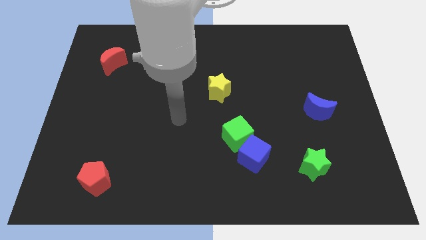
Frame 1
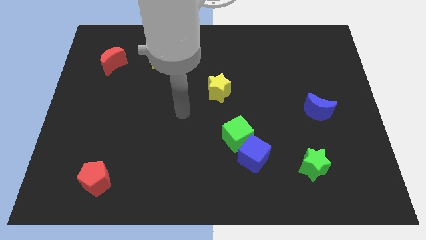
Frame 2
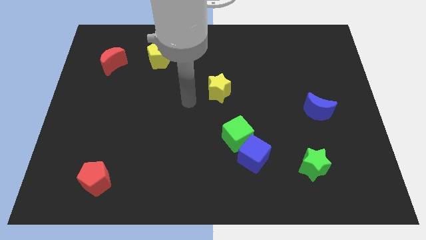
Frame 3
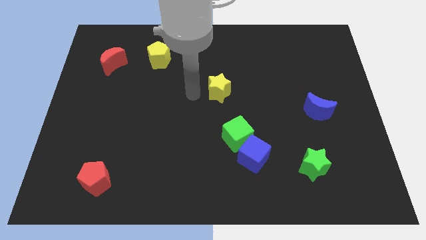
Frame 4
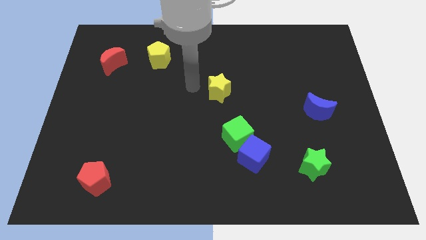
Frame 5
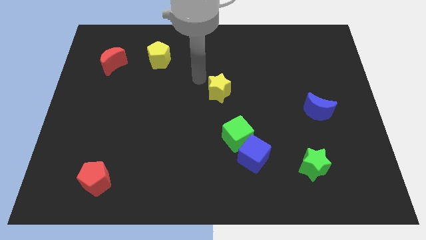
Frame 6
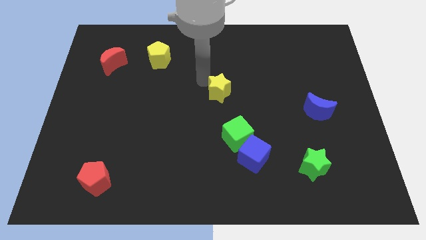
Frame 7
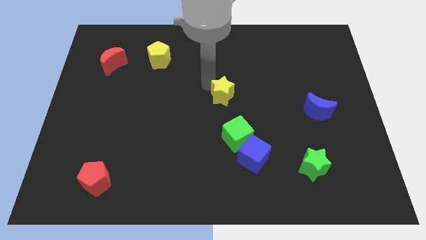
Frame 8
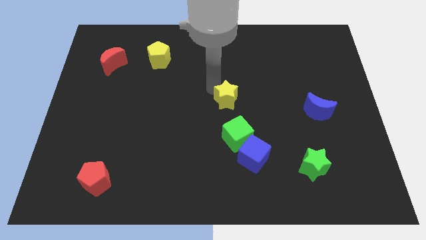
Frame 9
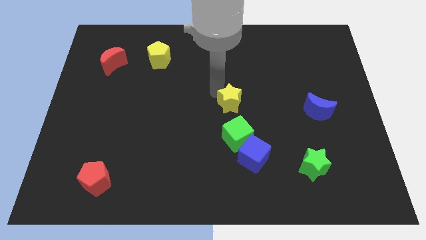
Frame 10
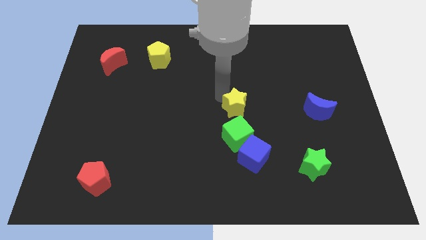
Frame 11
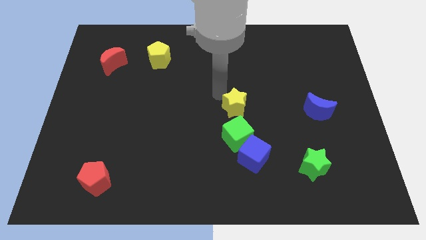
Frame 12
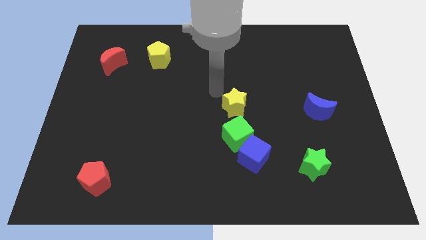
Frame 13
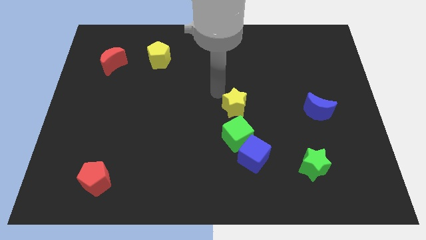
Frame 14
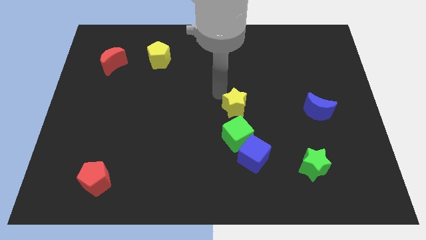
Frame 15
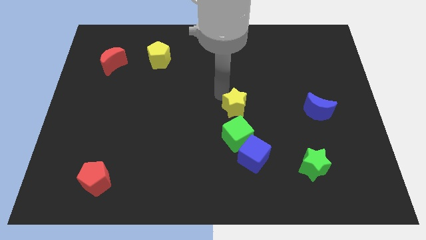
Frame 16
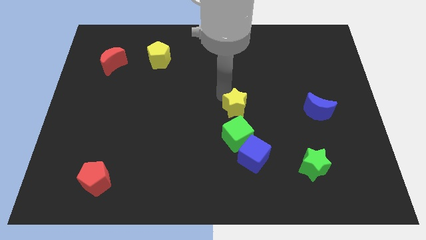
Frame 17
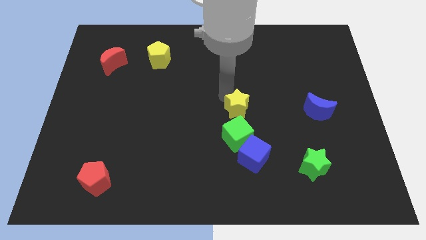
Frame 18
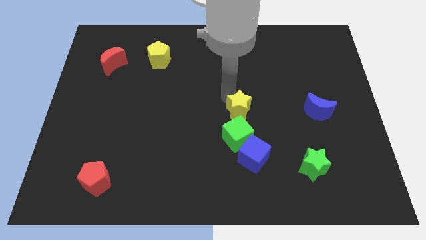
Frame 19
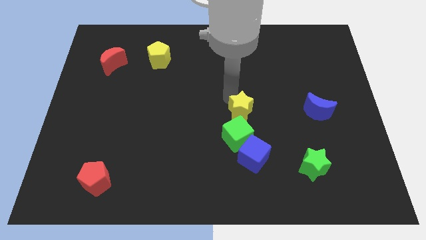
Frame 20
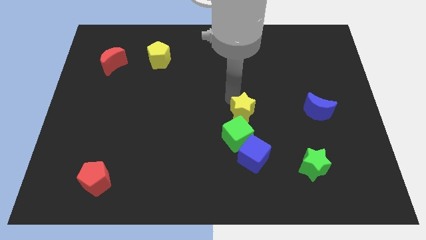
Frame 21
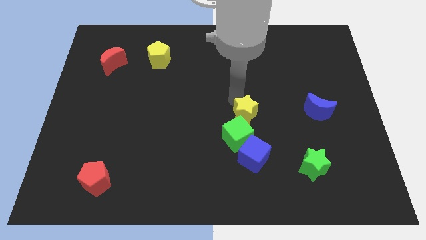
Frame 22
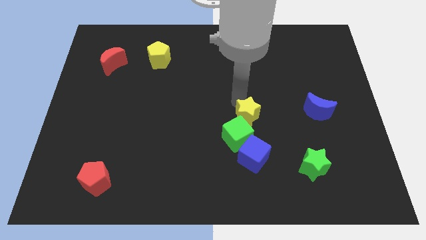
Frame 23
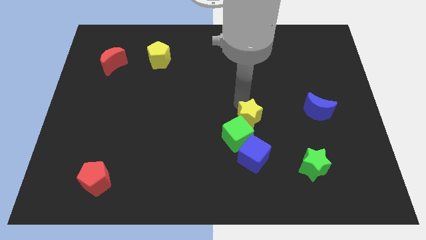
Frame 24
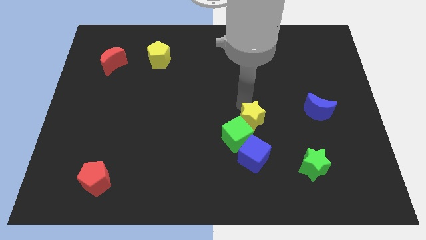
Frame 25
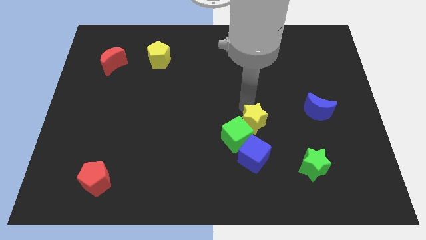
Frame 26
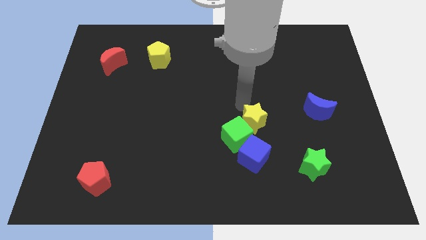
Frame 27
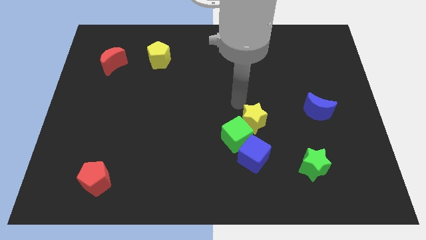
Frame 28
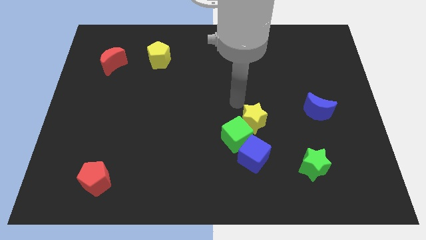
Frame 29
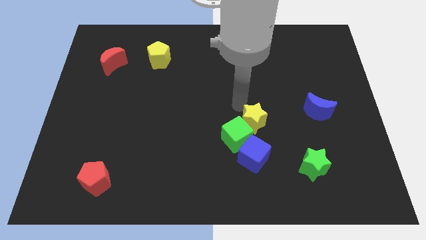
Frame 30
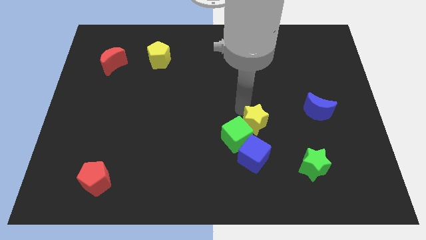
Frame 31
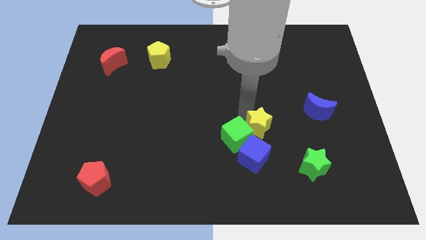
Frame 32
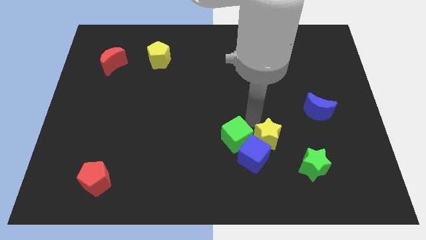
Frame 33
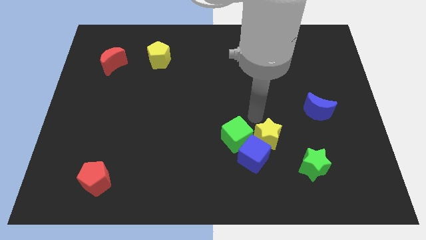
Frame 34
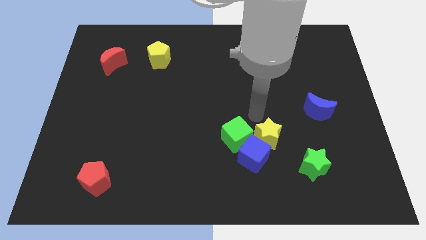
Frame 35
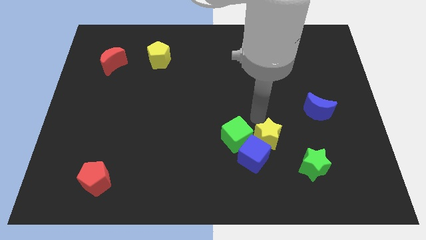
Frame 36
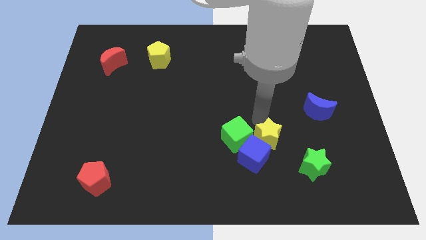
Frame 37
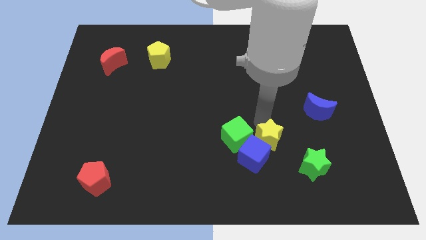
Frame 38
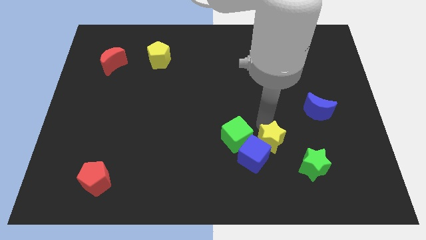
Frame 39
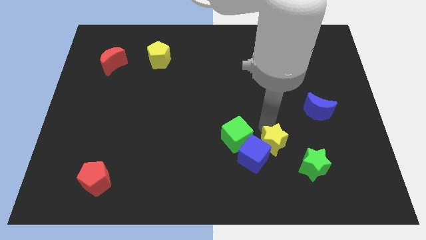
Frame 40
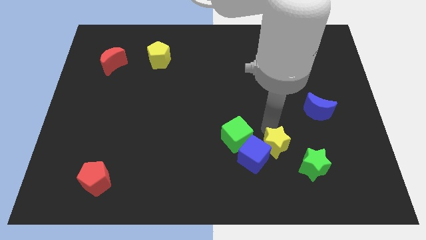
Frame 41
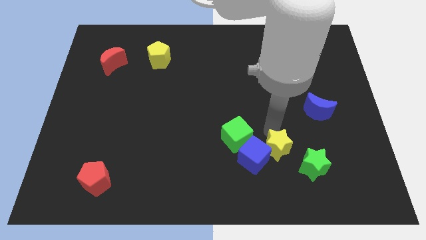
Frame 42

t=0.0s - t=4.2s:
slide the yellow star down and then right

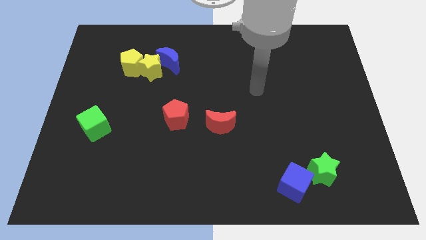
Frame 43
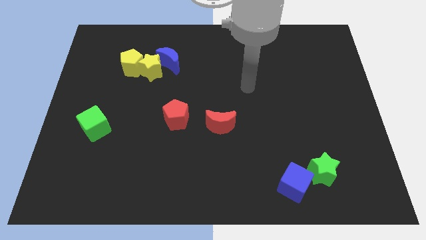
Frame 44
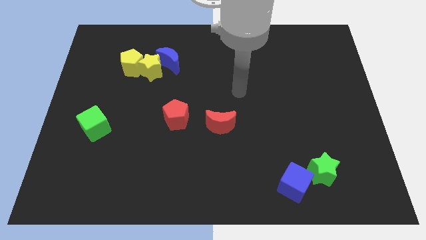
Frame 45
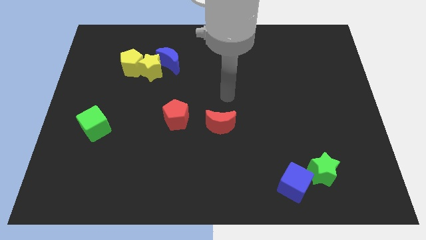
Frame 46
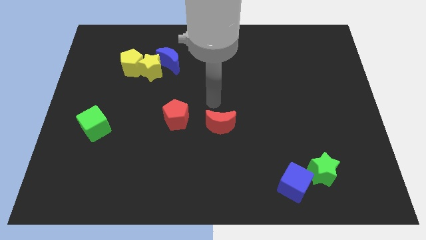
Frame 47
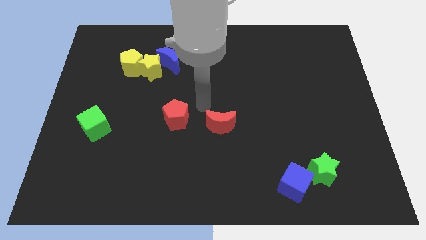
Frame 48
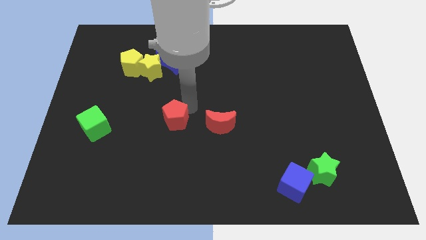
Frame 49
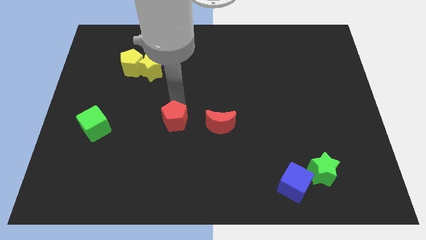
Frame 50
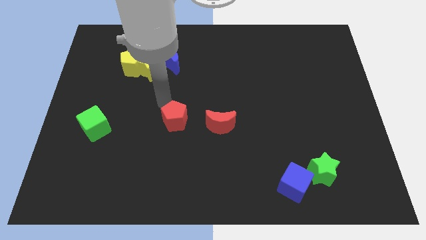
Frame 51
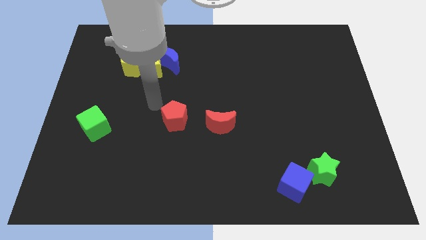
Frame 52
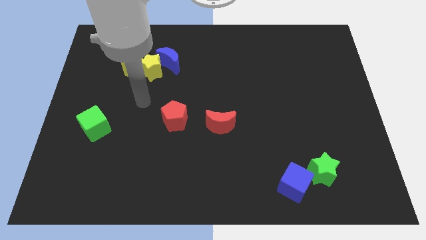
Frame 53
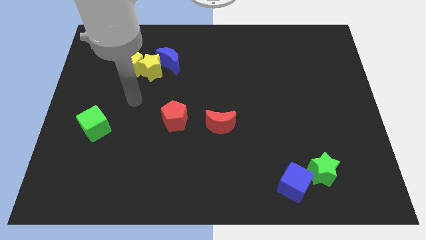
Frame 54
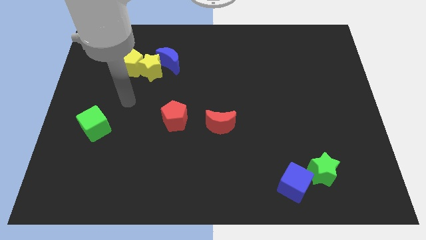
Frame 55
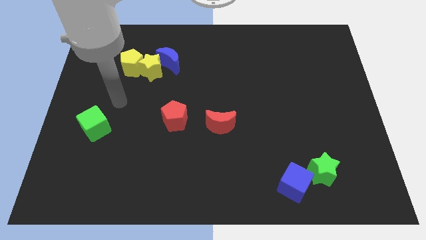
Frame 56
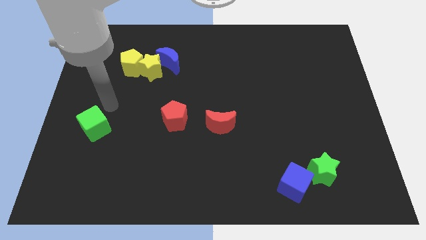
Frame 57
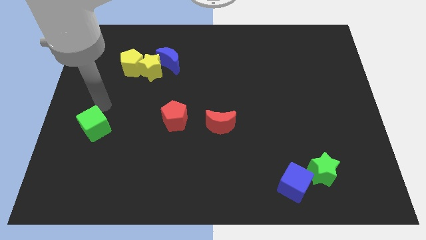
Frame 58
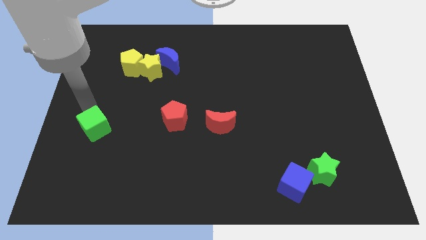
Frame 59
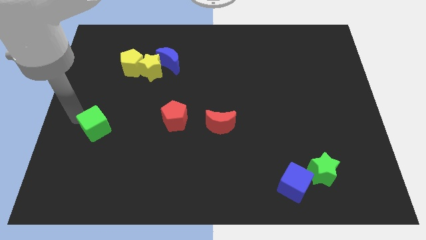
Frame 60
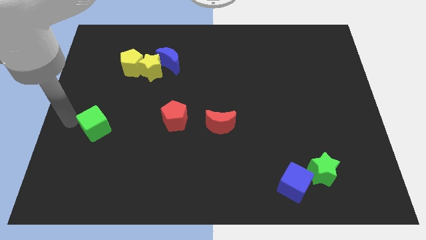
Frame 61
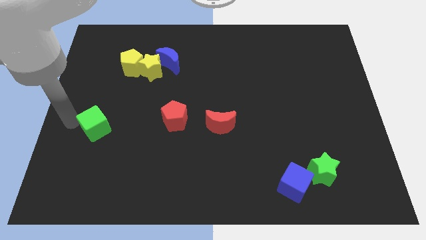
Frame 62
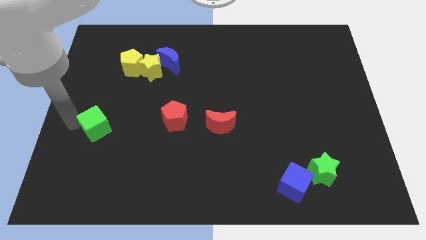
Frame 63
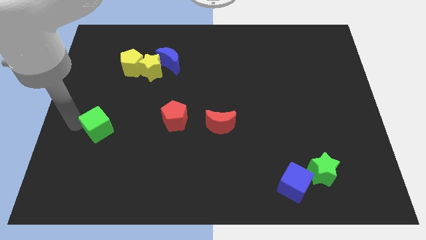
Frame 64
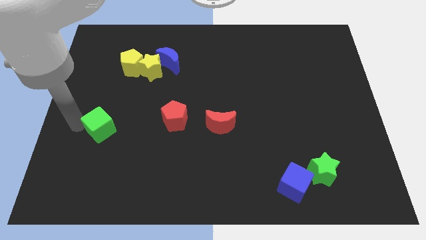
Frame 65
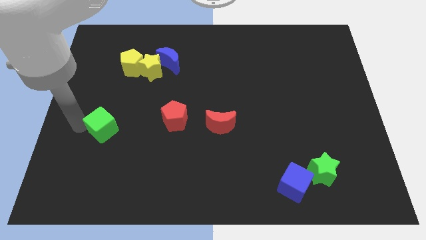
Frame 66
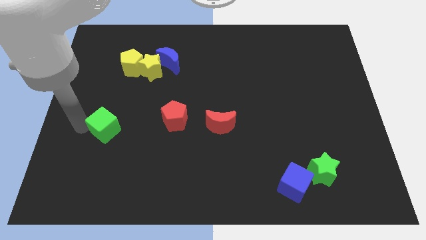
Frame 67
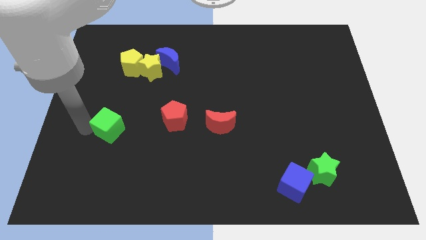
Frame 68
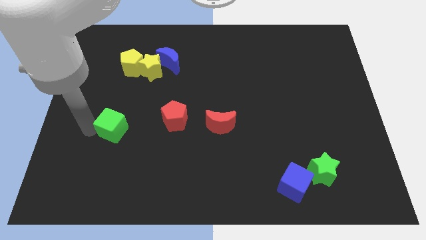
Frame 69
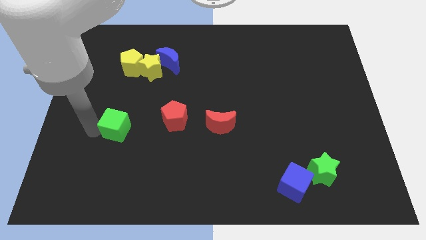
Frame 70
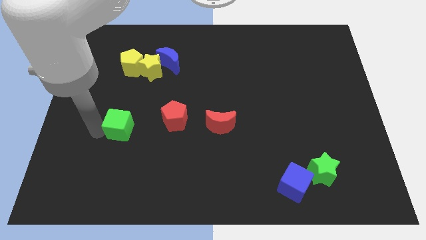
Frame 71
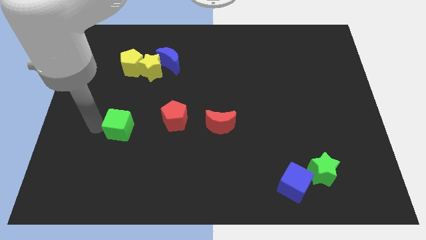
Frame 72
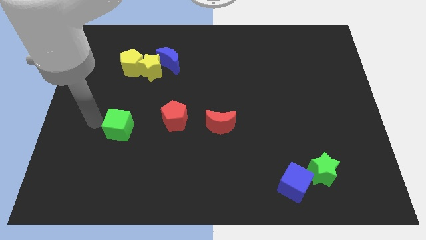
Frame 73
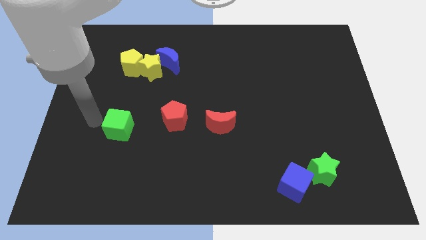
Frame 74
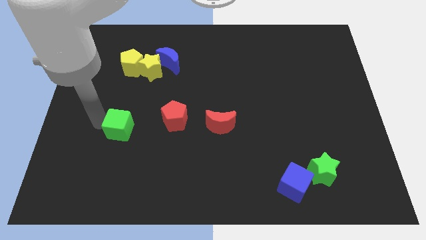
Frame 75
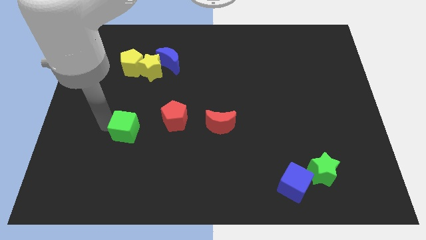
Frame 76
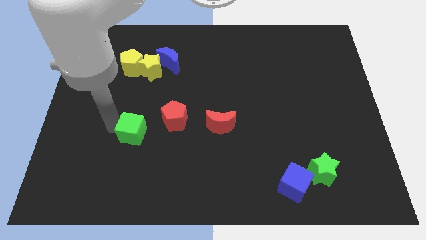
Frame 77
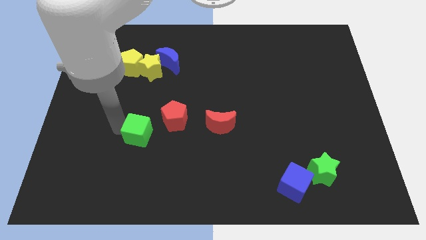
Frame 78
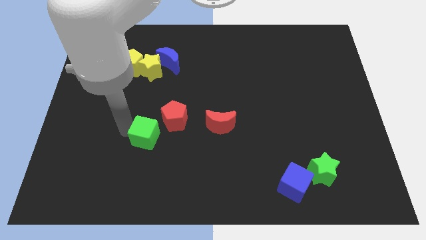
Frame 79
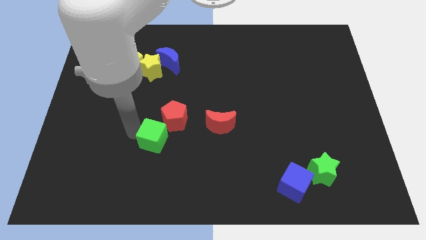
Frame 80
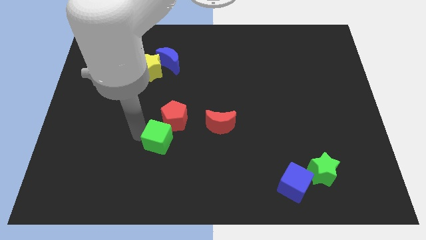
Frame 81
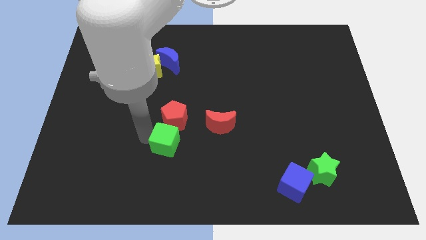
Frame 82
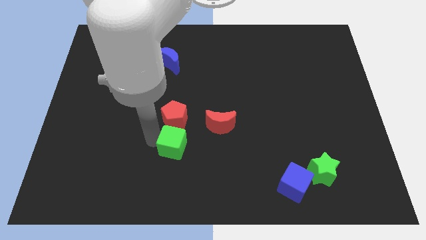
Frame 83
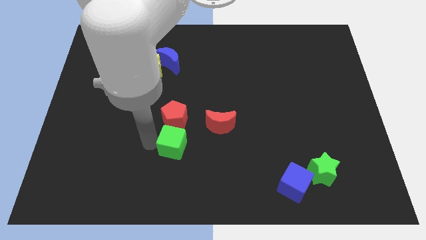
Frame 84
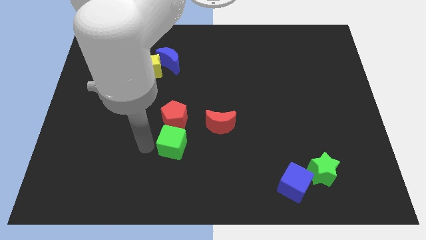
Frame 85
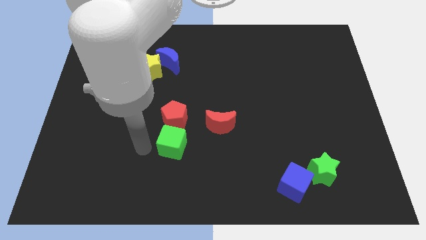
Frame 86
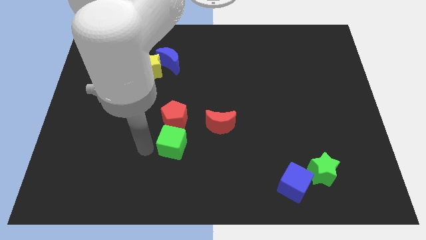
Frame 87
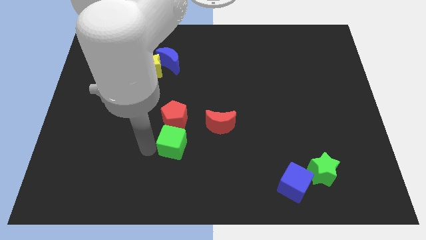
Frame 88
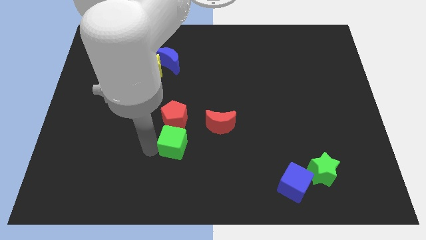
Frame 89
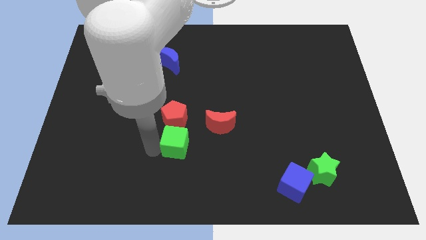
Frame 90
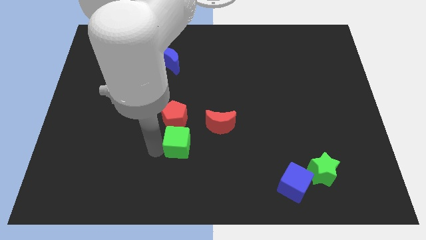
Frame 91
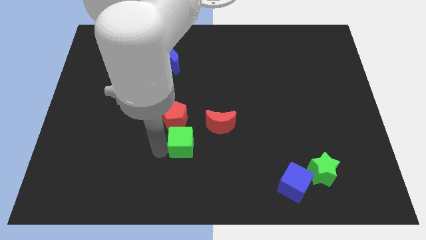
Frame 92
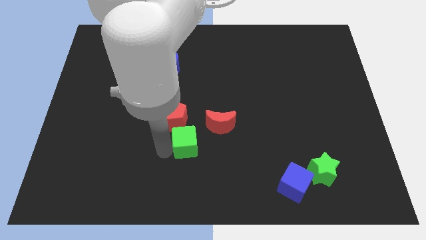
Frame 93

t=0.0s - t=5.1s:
push the green cube to the right
